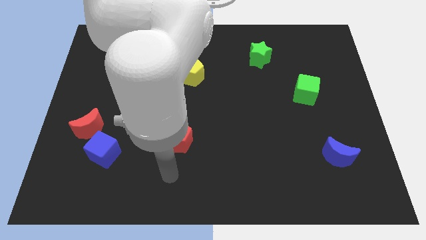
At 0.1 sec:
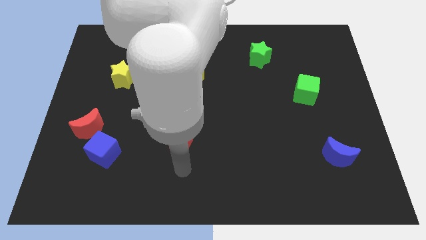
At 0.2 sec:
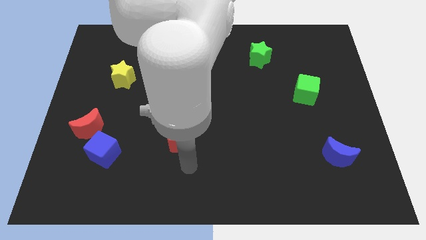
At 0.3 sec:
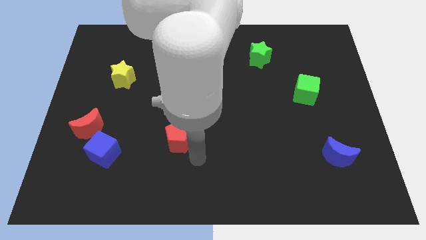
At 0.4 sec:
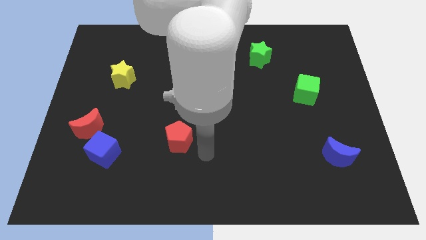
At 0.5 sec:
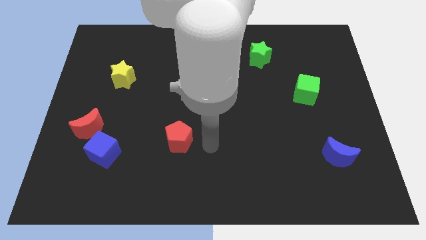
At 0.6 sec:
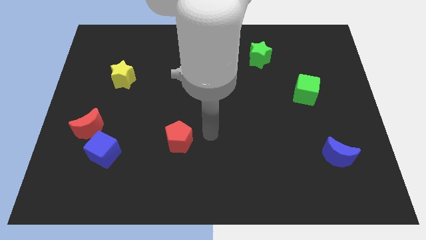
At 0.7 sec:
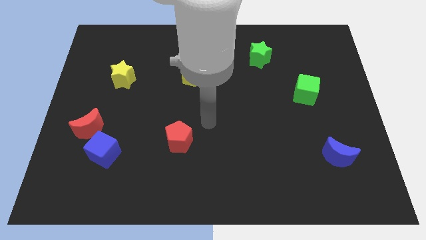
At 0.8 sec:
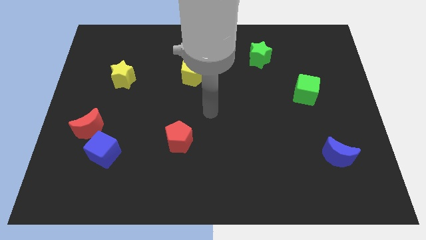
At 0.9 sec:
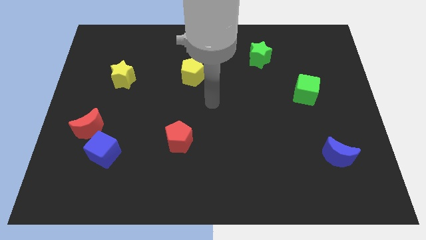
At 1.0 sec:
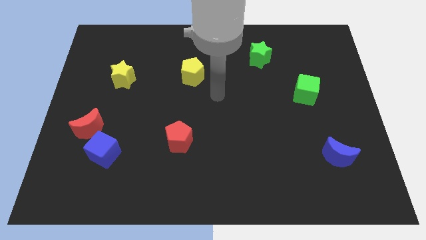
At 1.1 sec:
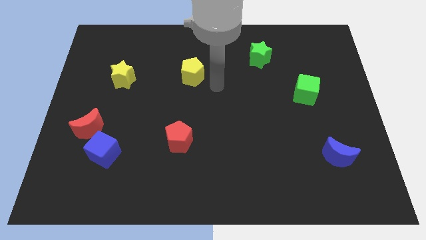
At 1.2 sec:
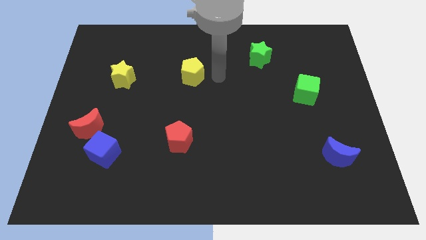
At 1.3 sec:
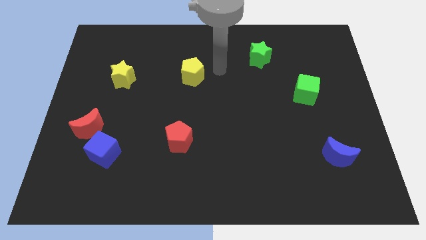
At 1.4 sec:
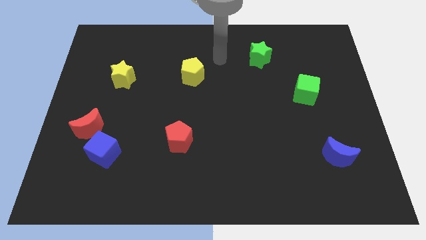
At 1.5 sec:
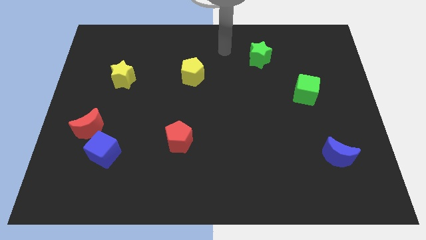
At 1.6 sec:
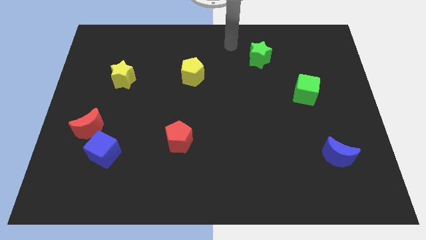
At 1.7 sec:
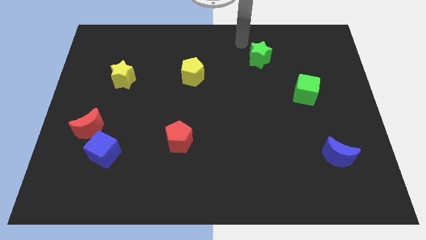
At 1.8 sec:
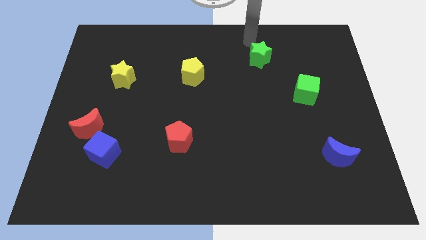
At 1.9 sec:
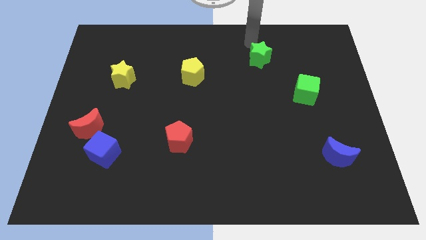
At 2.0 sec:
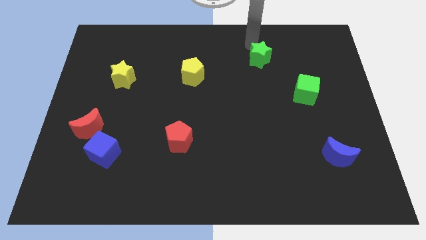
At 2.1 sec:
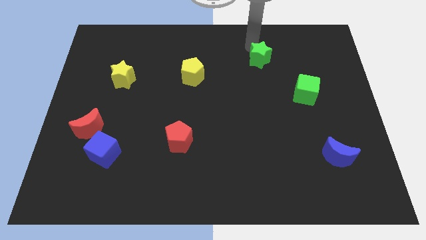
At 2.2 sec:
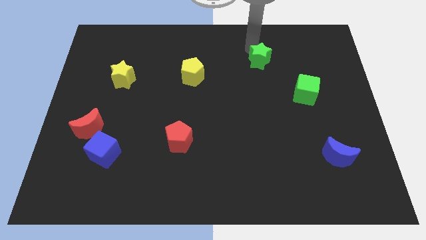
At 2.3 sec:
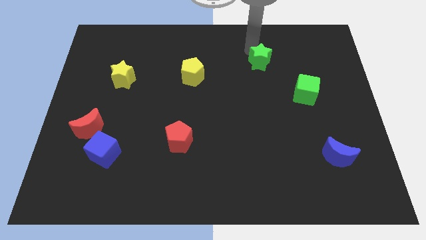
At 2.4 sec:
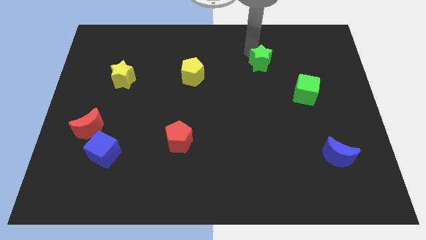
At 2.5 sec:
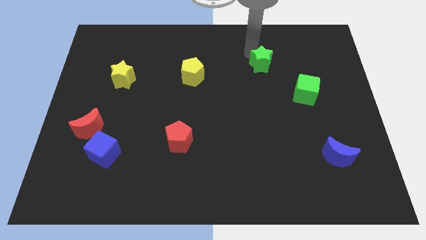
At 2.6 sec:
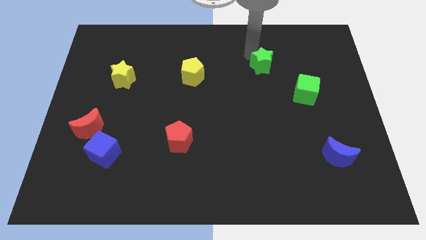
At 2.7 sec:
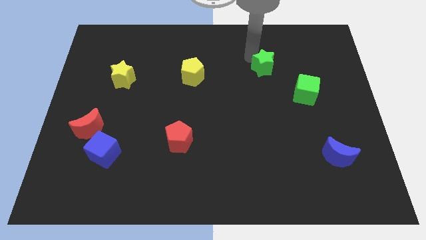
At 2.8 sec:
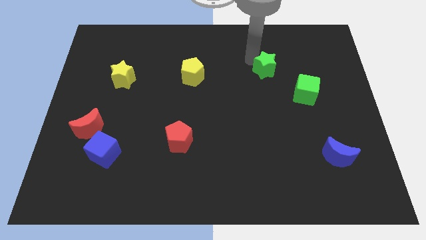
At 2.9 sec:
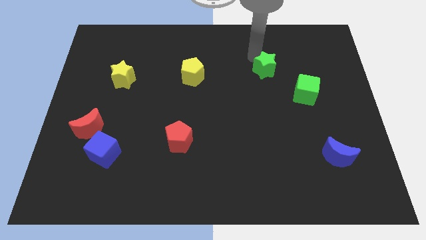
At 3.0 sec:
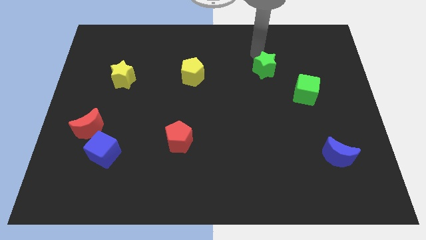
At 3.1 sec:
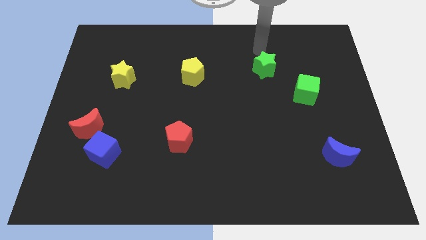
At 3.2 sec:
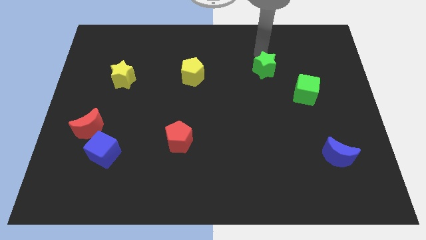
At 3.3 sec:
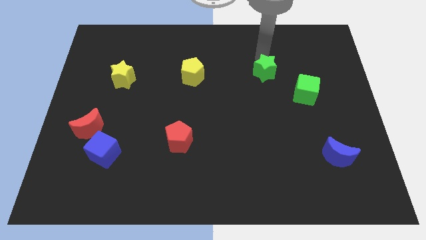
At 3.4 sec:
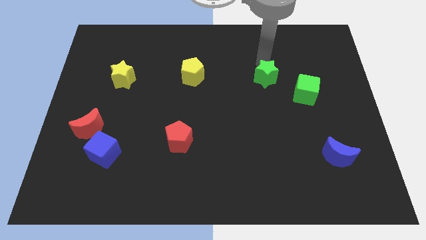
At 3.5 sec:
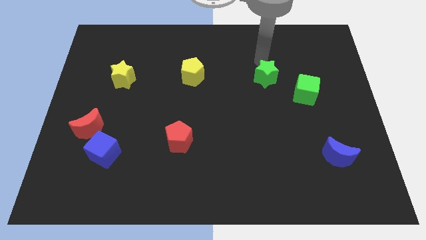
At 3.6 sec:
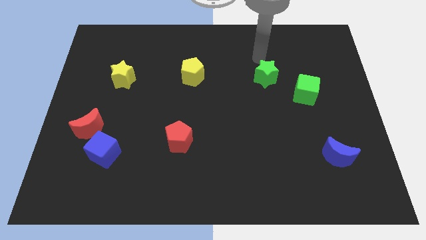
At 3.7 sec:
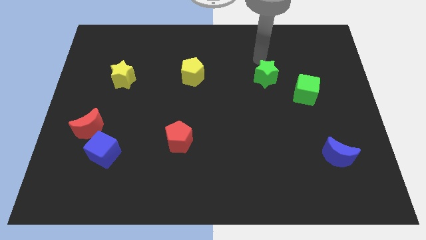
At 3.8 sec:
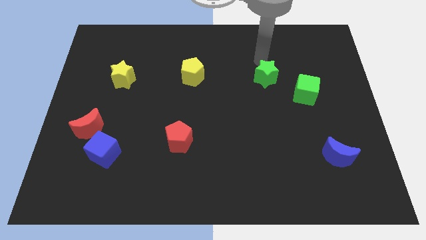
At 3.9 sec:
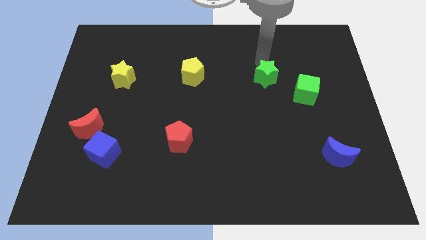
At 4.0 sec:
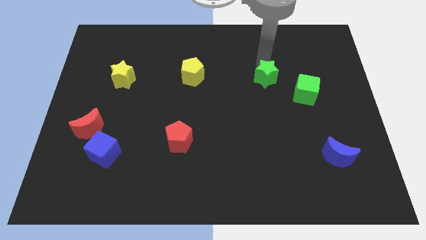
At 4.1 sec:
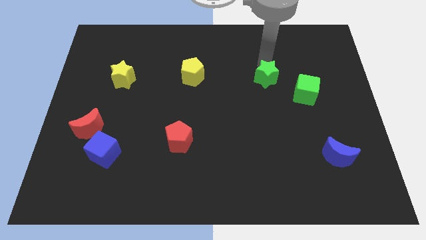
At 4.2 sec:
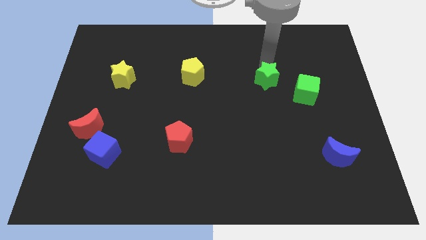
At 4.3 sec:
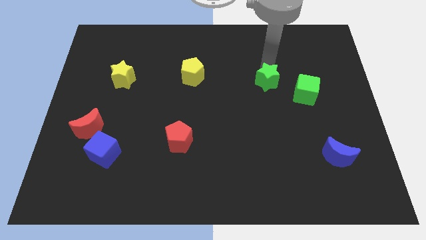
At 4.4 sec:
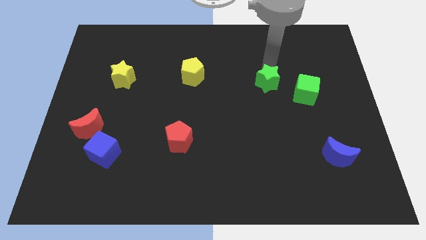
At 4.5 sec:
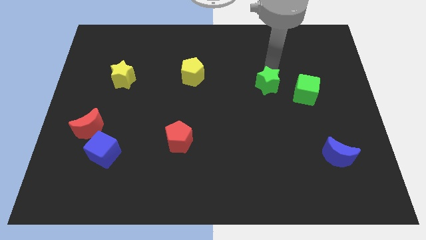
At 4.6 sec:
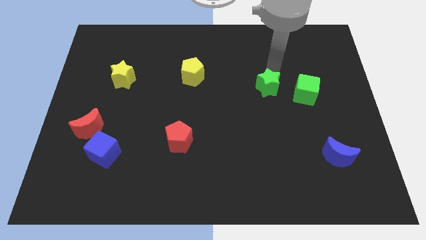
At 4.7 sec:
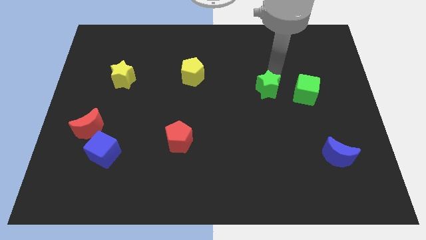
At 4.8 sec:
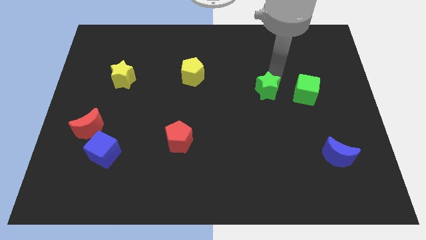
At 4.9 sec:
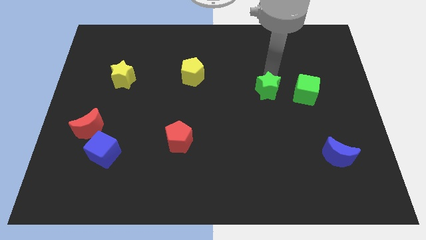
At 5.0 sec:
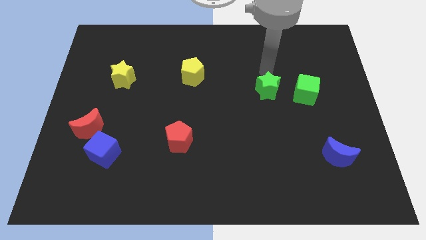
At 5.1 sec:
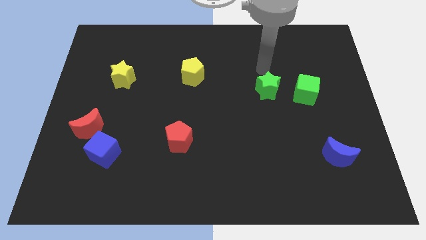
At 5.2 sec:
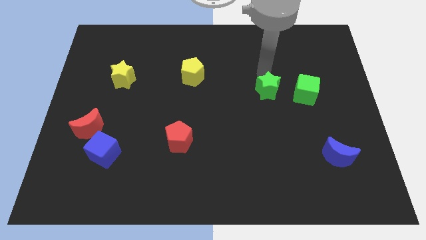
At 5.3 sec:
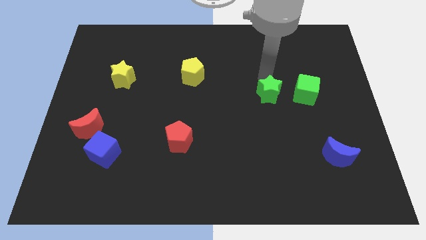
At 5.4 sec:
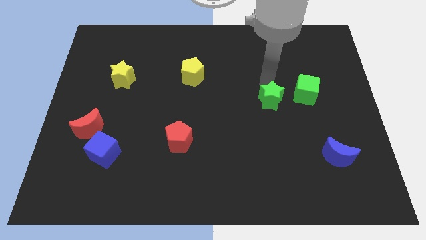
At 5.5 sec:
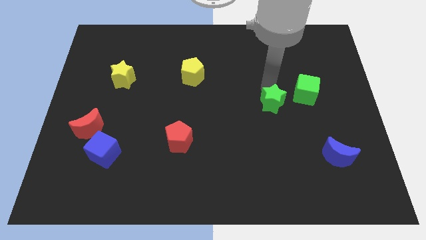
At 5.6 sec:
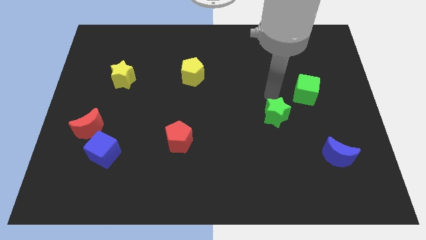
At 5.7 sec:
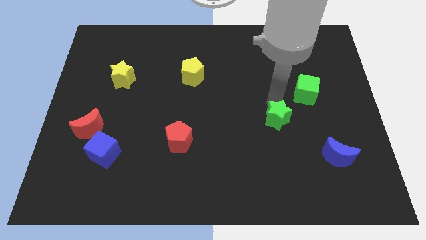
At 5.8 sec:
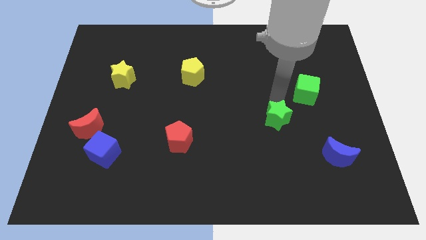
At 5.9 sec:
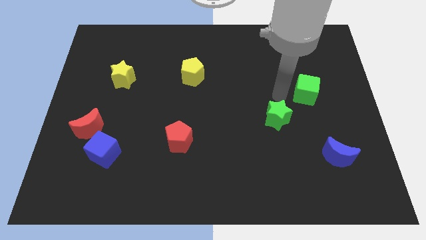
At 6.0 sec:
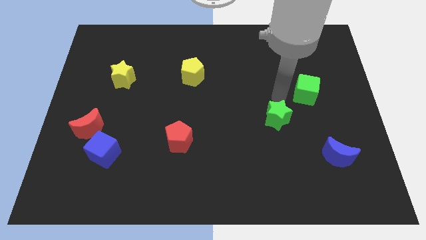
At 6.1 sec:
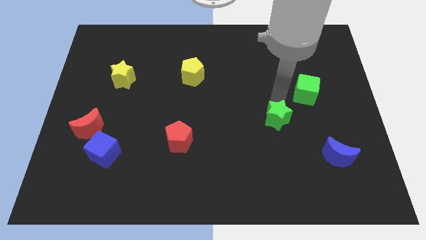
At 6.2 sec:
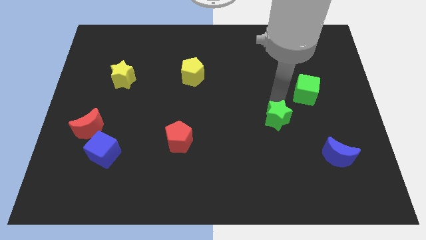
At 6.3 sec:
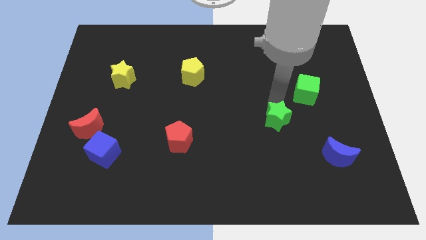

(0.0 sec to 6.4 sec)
slide the green star downwards

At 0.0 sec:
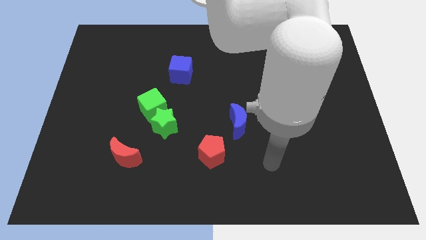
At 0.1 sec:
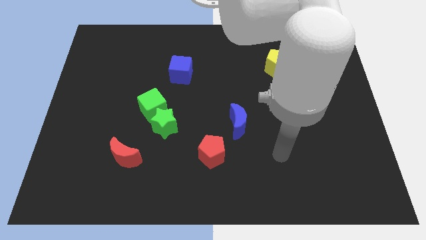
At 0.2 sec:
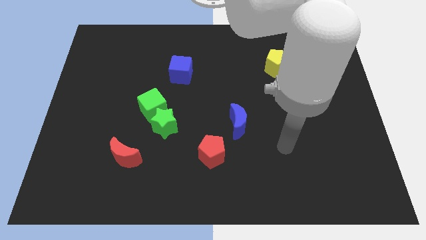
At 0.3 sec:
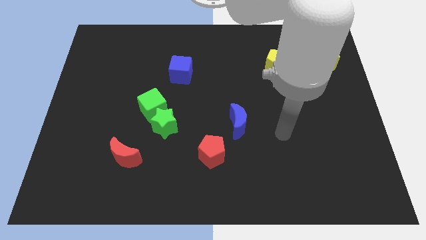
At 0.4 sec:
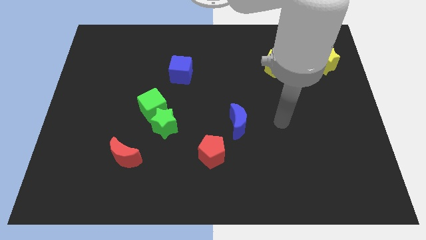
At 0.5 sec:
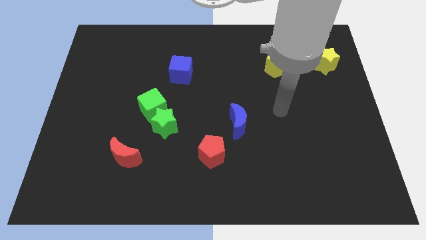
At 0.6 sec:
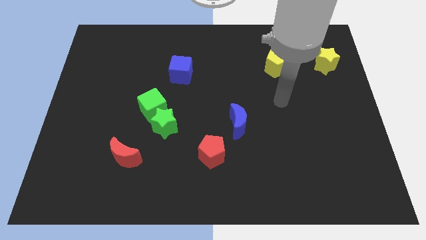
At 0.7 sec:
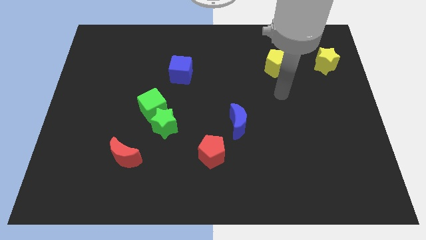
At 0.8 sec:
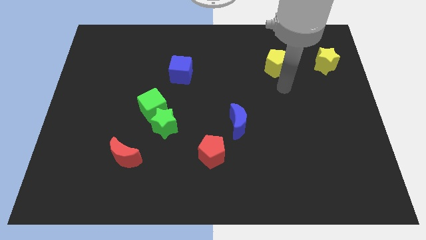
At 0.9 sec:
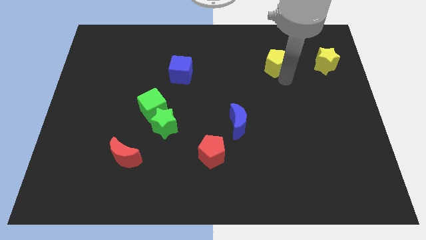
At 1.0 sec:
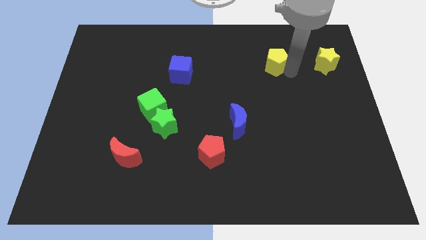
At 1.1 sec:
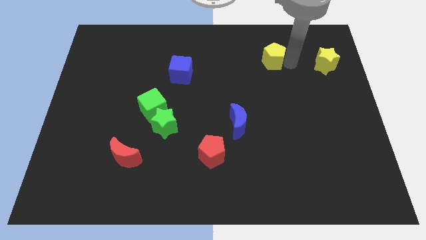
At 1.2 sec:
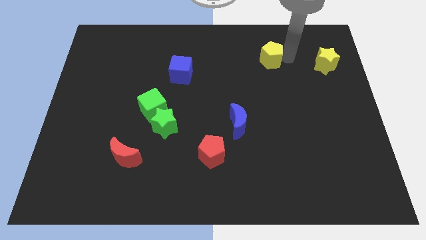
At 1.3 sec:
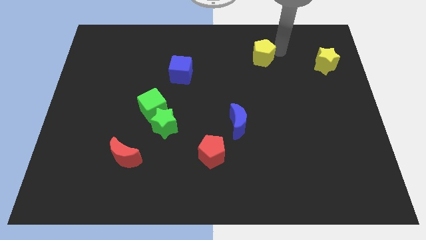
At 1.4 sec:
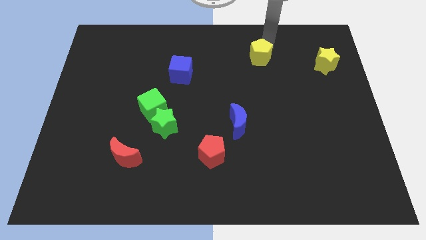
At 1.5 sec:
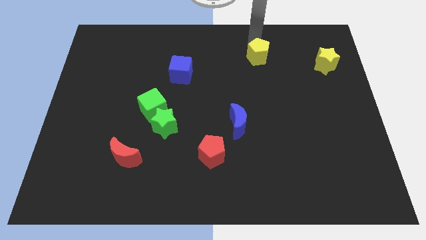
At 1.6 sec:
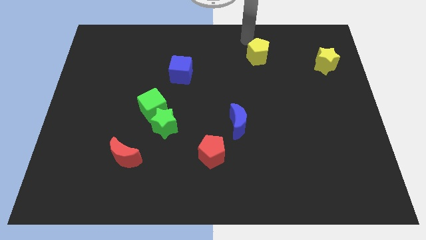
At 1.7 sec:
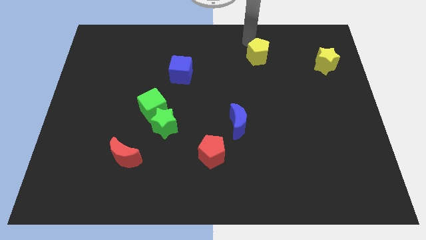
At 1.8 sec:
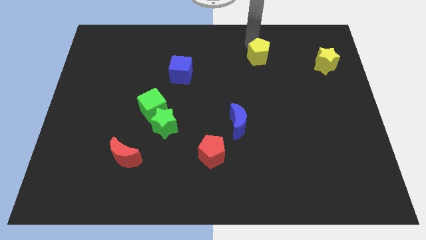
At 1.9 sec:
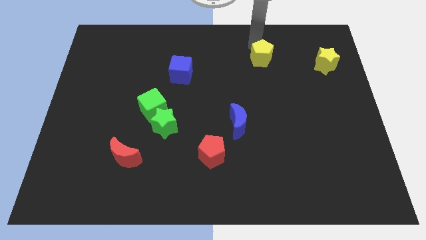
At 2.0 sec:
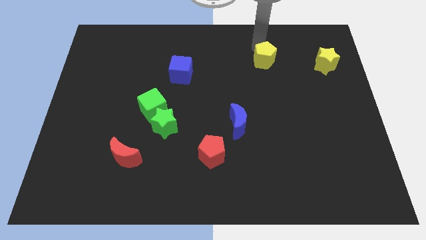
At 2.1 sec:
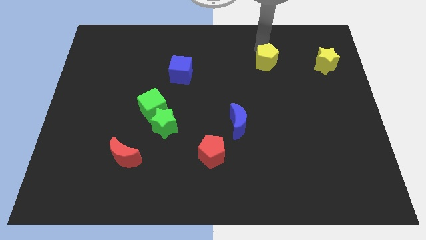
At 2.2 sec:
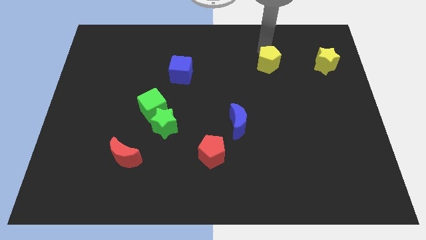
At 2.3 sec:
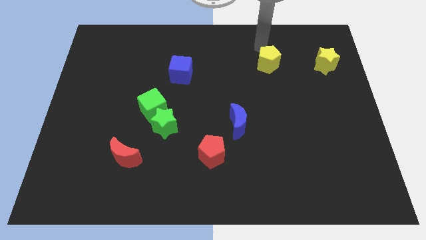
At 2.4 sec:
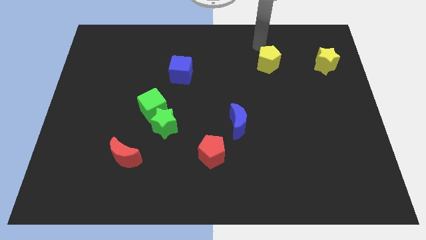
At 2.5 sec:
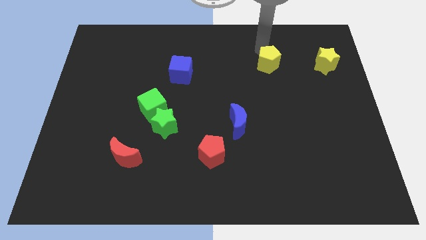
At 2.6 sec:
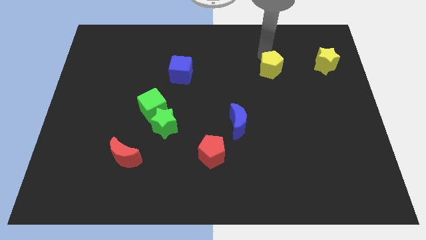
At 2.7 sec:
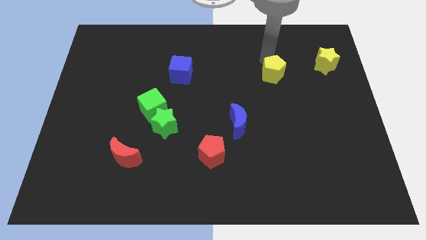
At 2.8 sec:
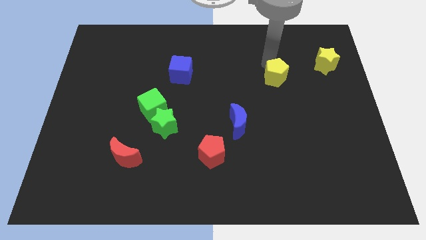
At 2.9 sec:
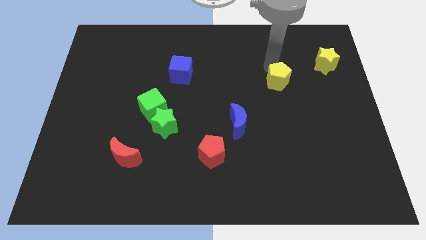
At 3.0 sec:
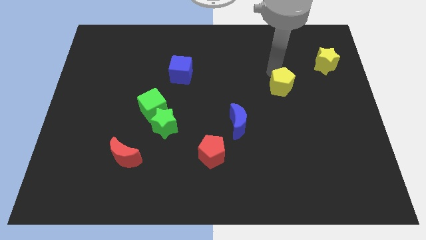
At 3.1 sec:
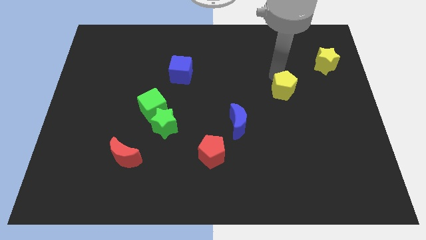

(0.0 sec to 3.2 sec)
move the yellow pentagon somewhat downwards
